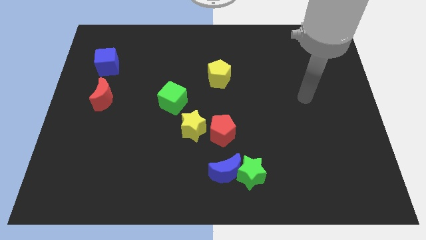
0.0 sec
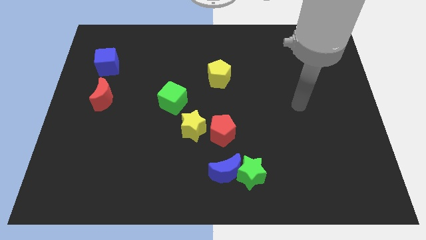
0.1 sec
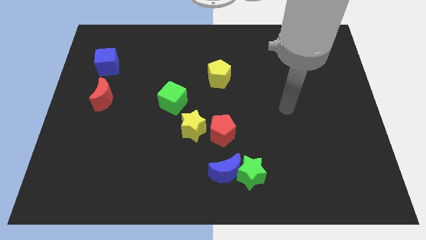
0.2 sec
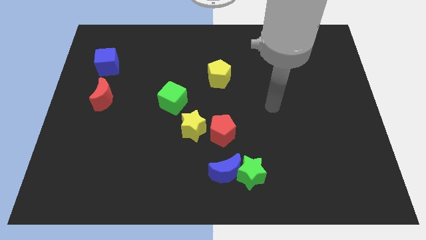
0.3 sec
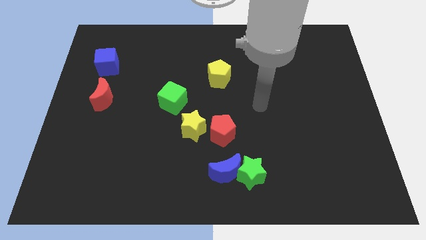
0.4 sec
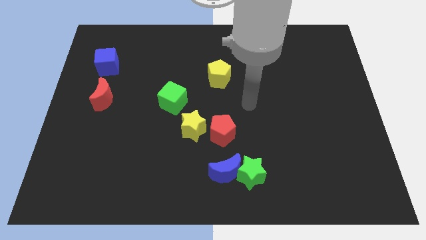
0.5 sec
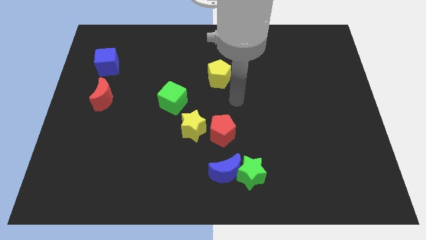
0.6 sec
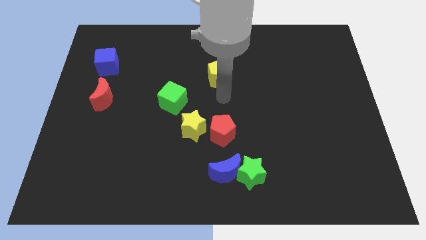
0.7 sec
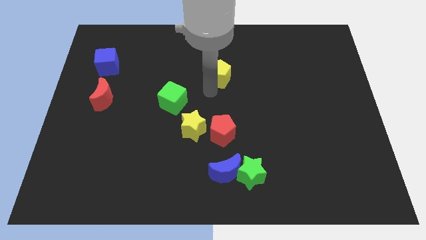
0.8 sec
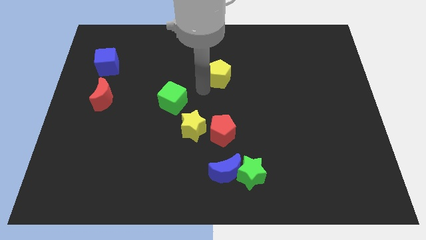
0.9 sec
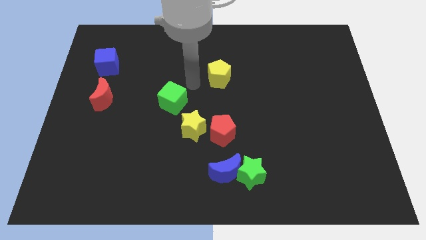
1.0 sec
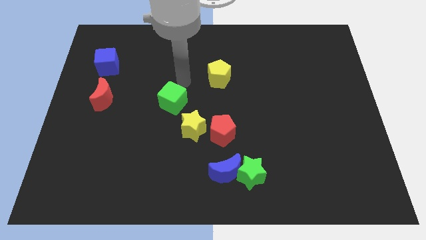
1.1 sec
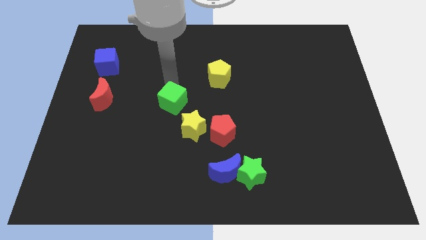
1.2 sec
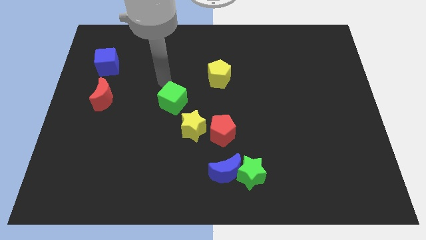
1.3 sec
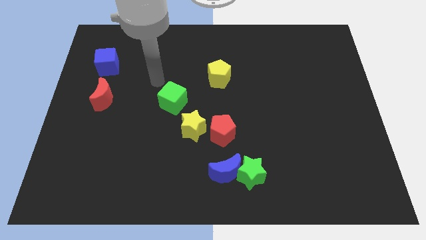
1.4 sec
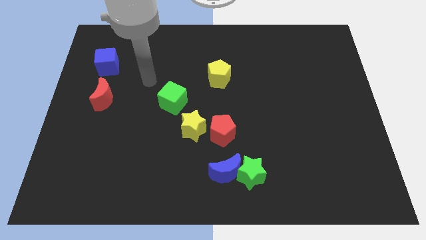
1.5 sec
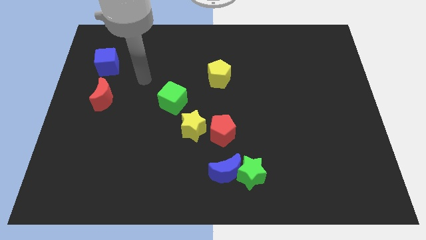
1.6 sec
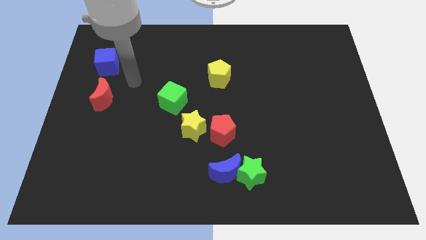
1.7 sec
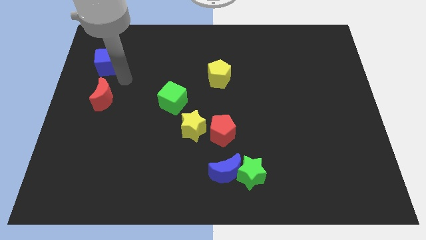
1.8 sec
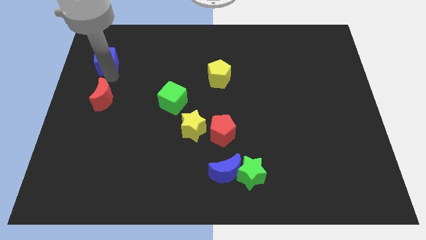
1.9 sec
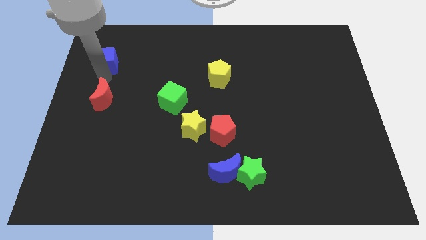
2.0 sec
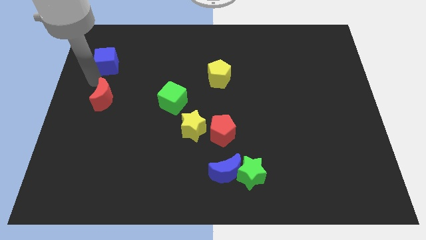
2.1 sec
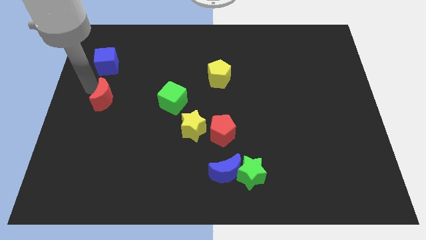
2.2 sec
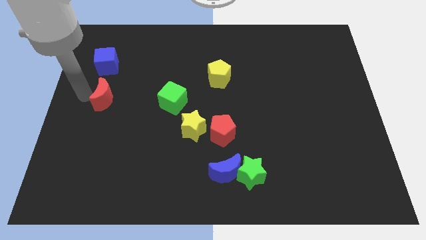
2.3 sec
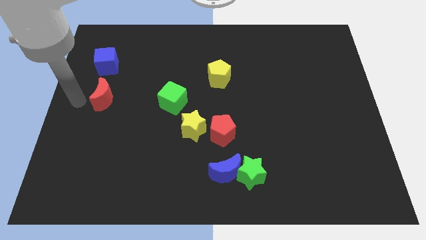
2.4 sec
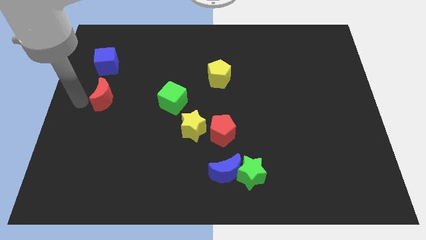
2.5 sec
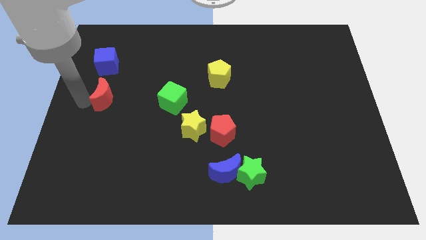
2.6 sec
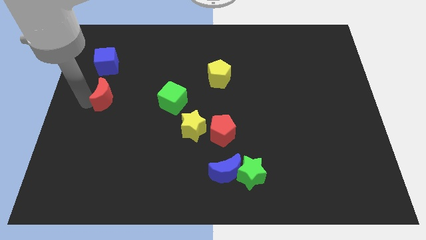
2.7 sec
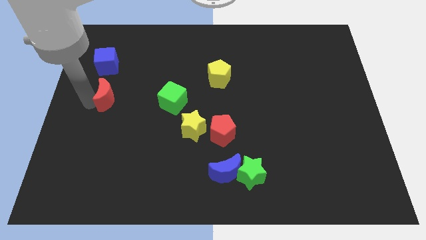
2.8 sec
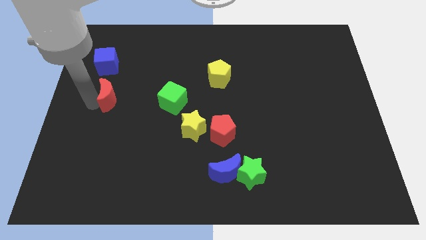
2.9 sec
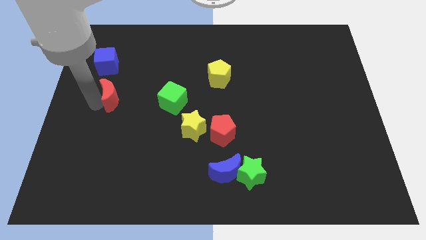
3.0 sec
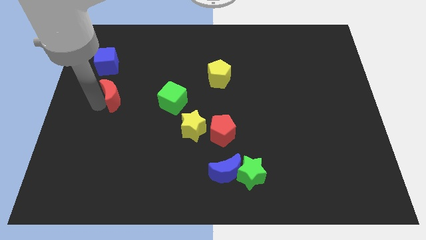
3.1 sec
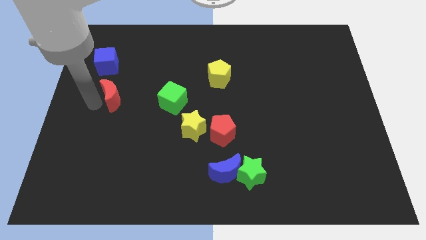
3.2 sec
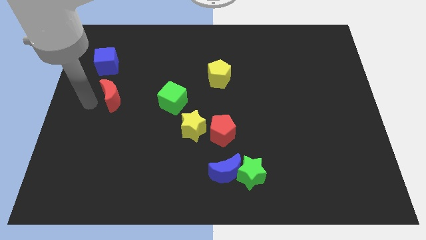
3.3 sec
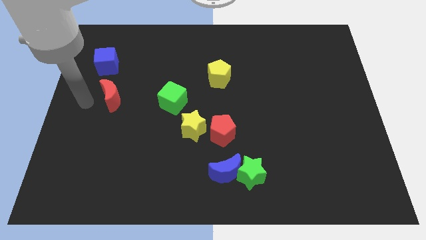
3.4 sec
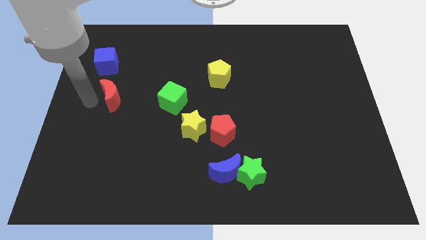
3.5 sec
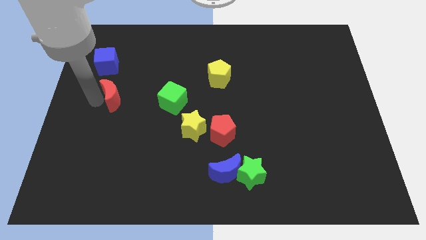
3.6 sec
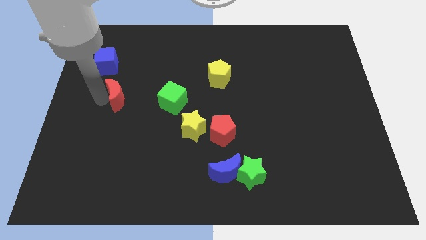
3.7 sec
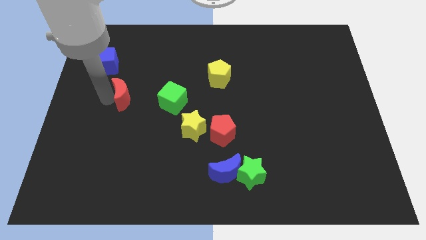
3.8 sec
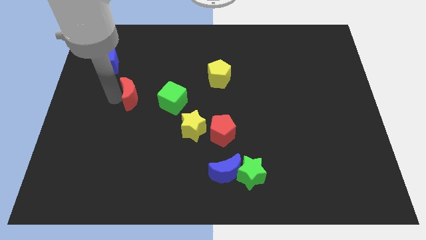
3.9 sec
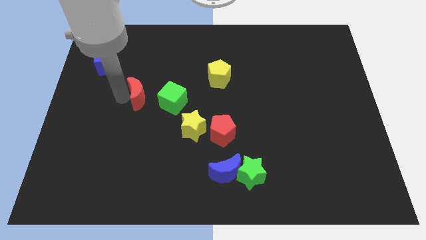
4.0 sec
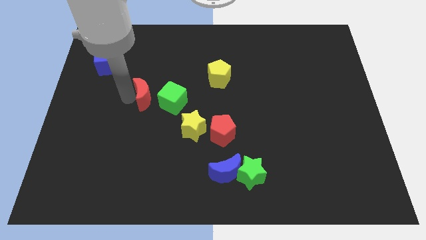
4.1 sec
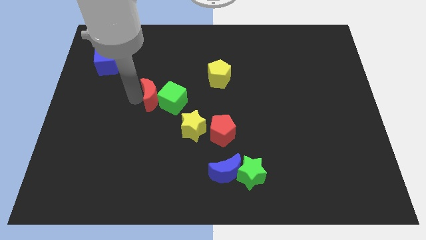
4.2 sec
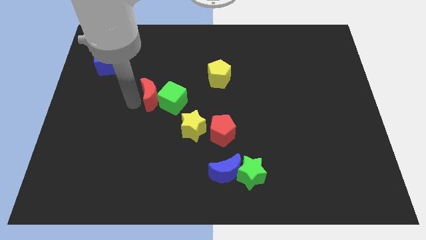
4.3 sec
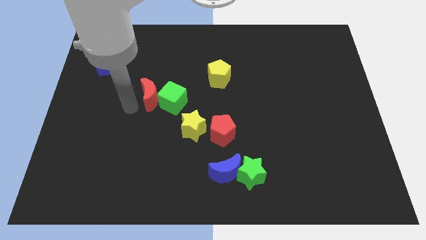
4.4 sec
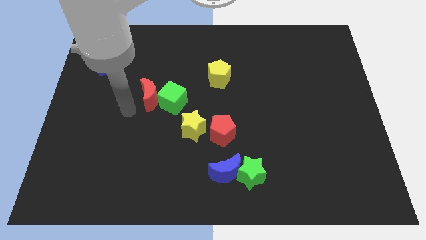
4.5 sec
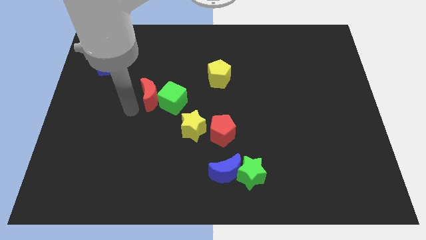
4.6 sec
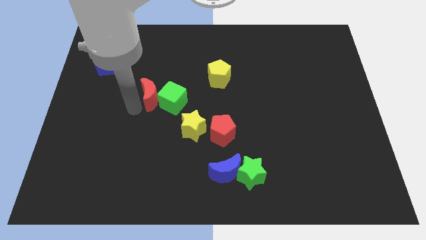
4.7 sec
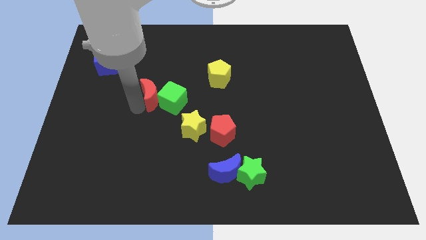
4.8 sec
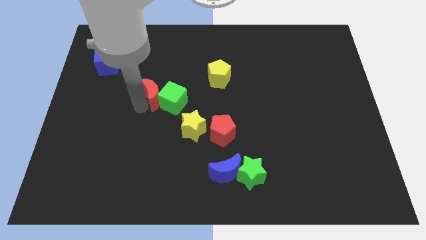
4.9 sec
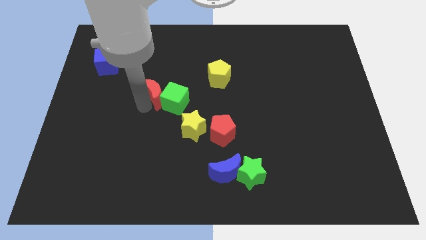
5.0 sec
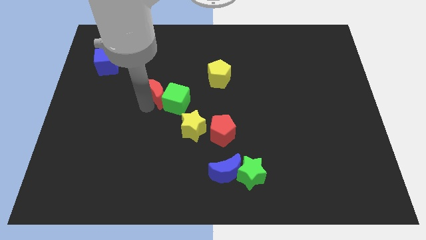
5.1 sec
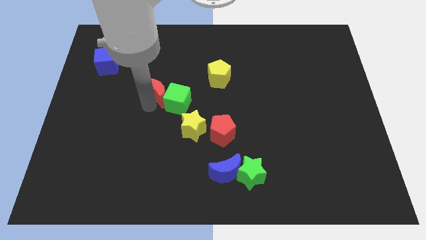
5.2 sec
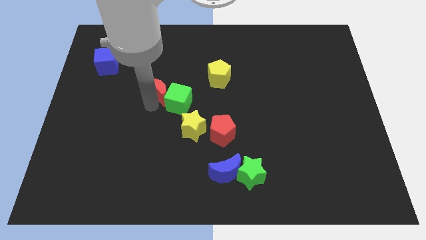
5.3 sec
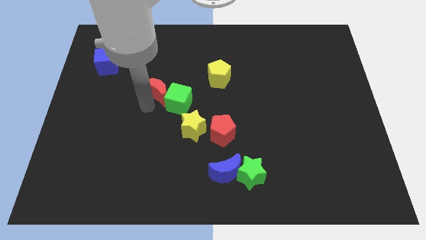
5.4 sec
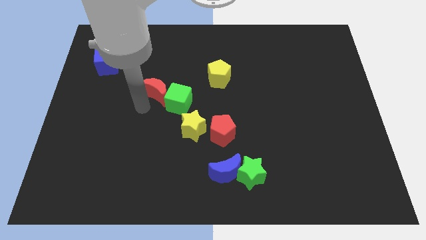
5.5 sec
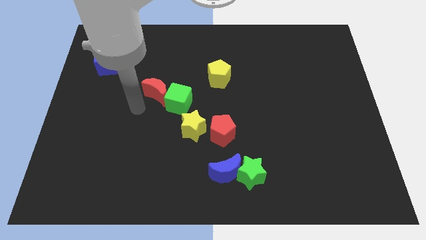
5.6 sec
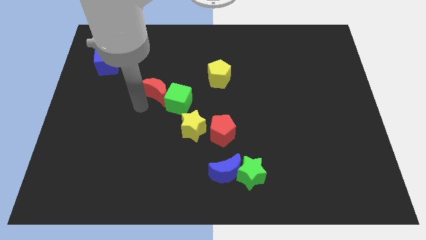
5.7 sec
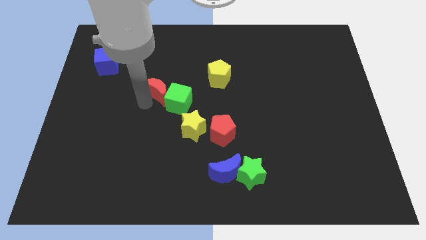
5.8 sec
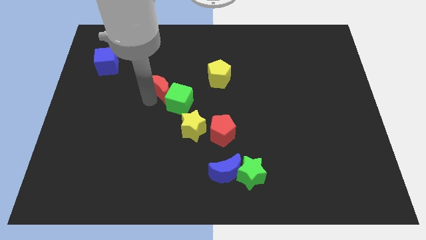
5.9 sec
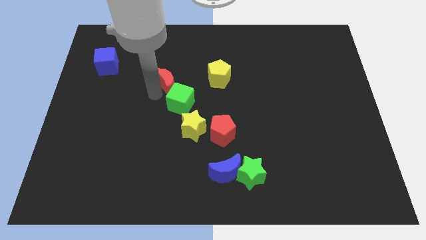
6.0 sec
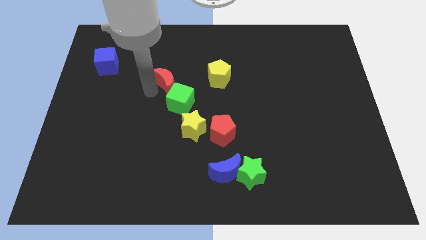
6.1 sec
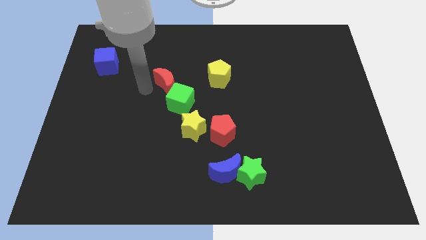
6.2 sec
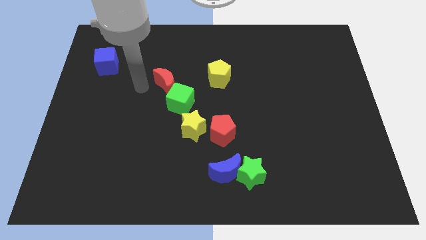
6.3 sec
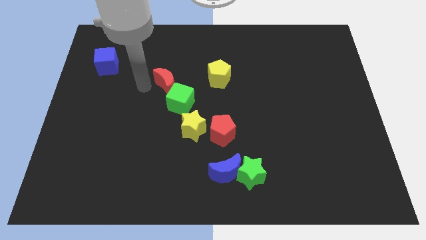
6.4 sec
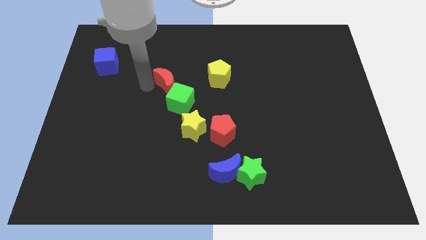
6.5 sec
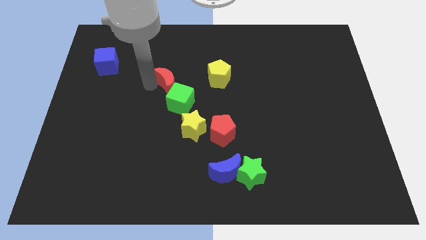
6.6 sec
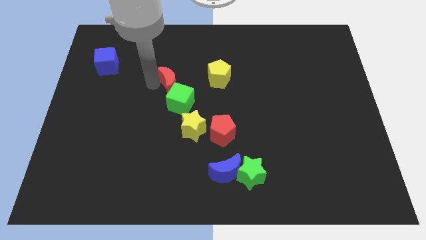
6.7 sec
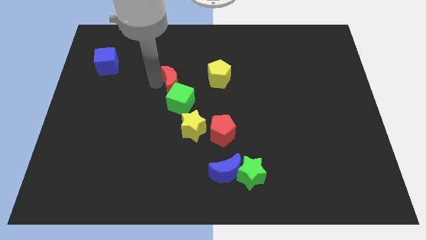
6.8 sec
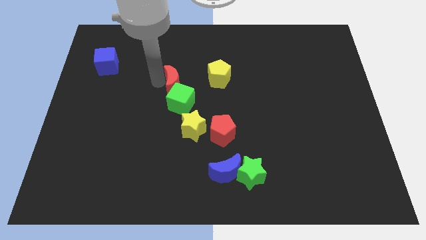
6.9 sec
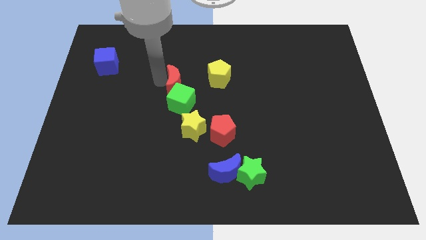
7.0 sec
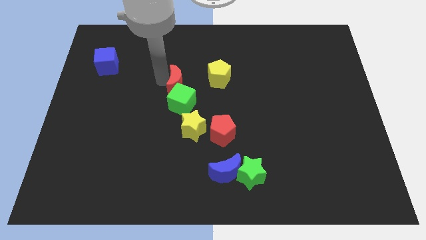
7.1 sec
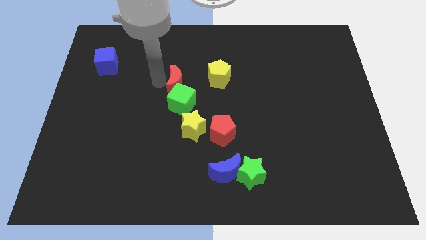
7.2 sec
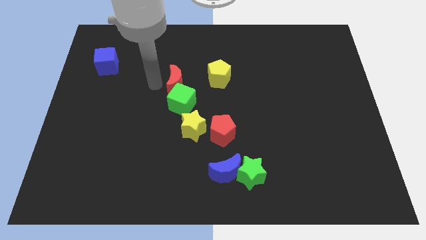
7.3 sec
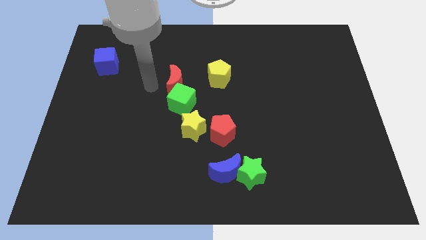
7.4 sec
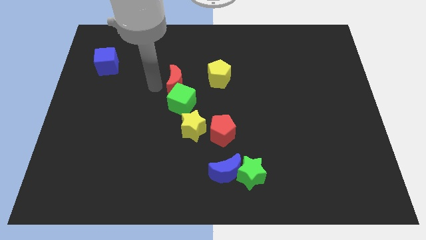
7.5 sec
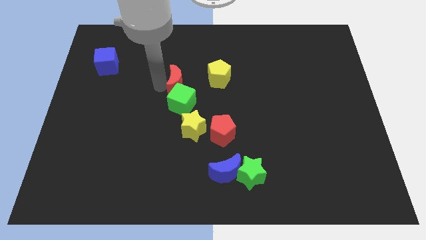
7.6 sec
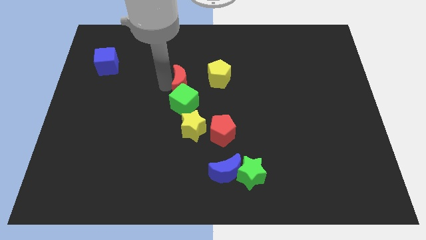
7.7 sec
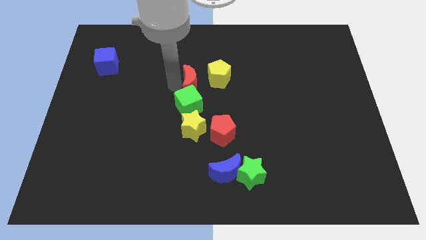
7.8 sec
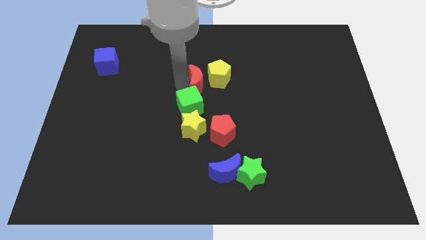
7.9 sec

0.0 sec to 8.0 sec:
push the red moon towards the yellow pentagon
